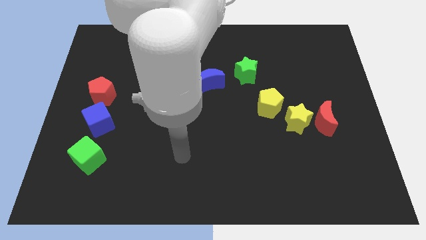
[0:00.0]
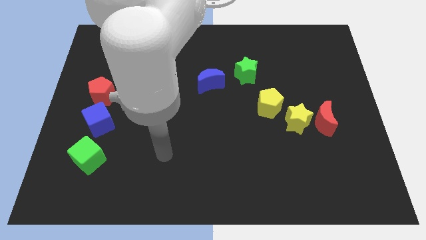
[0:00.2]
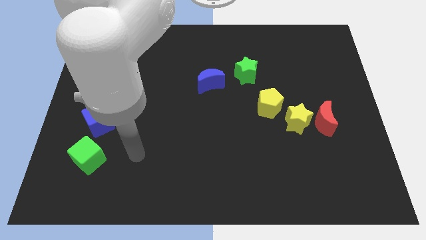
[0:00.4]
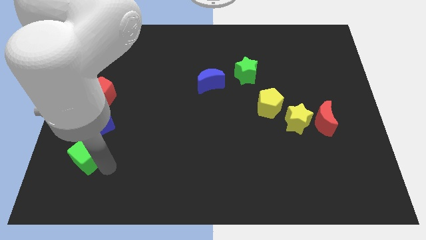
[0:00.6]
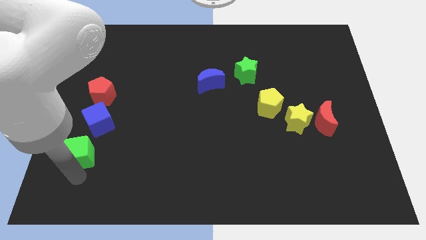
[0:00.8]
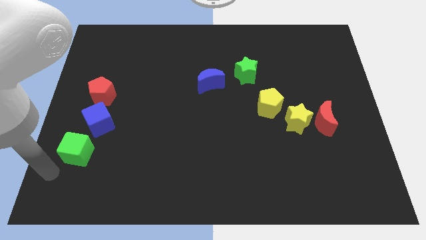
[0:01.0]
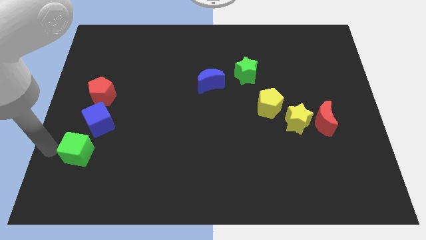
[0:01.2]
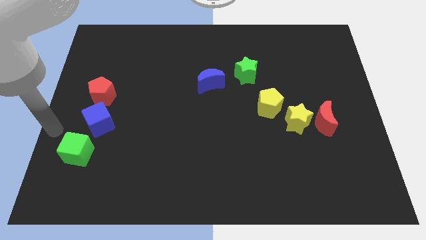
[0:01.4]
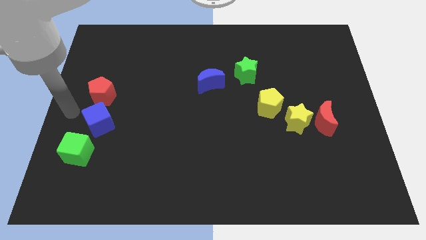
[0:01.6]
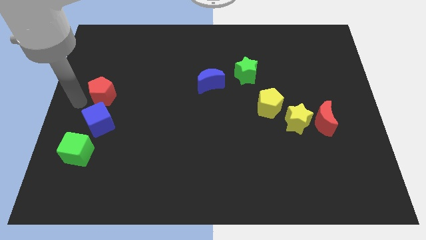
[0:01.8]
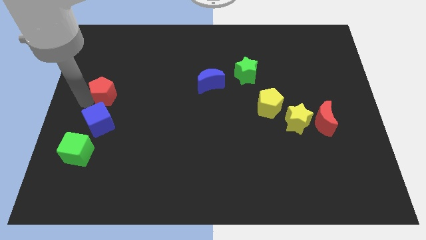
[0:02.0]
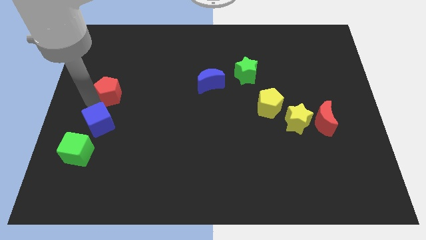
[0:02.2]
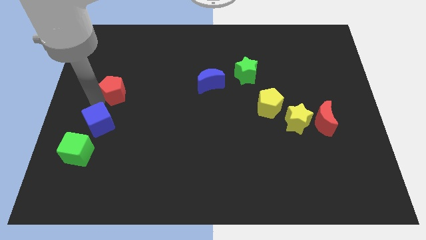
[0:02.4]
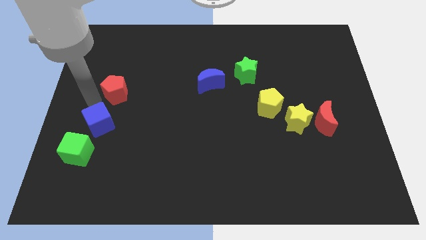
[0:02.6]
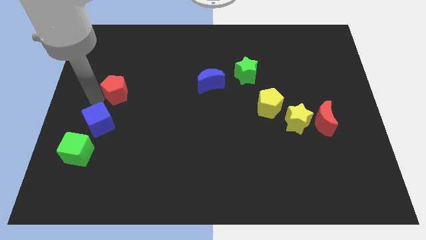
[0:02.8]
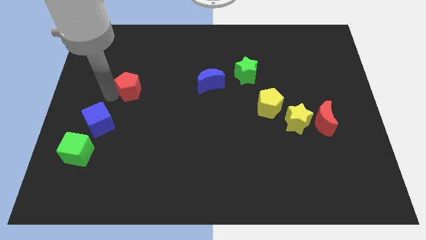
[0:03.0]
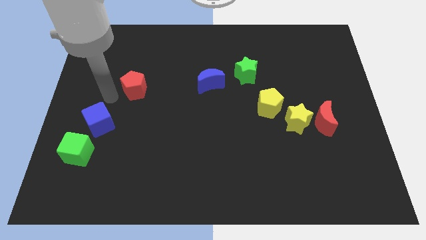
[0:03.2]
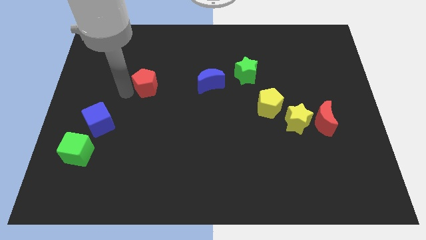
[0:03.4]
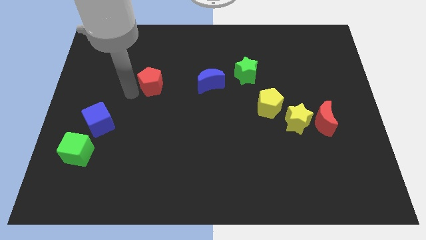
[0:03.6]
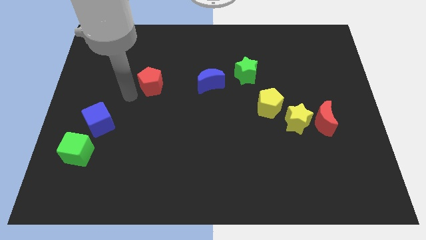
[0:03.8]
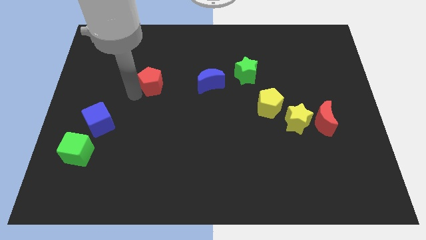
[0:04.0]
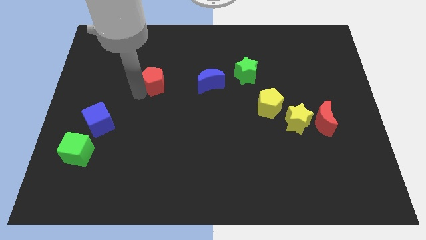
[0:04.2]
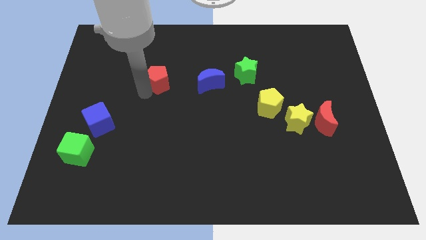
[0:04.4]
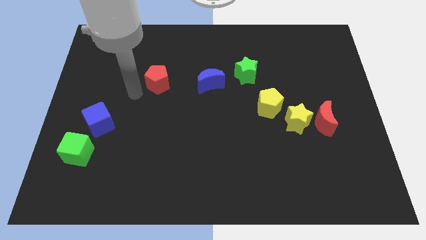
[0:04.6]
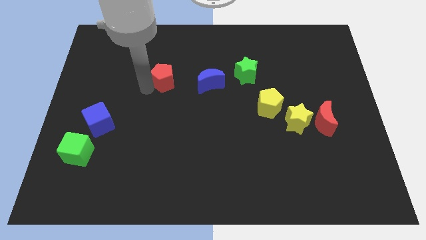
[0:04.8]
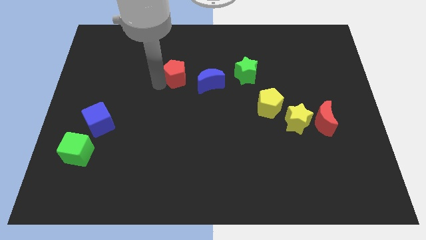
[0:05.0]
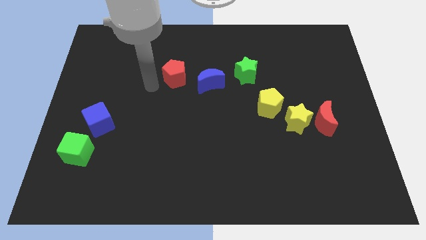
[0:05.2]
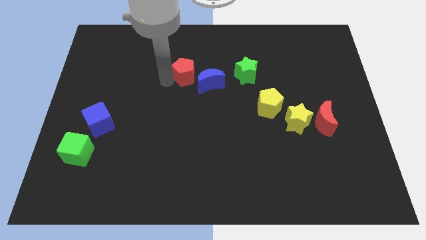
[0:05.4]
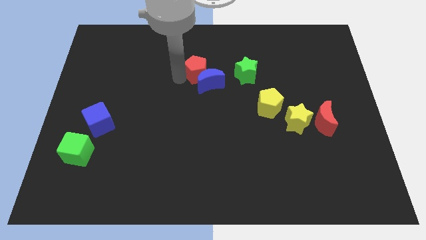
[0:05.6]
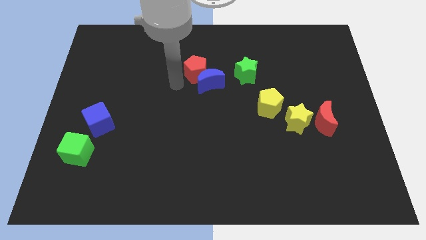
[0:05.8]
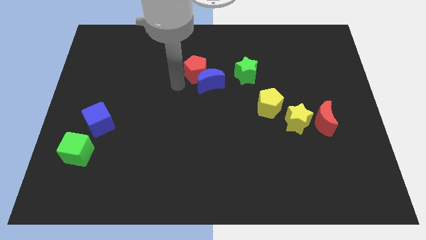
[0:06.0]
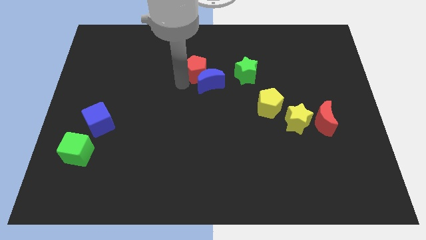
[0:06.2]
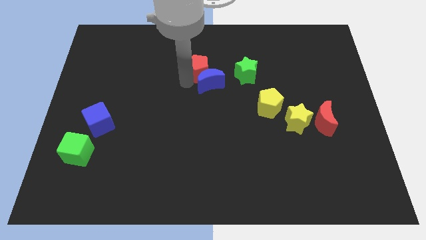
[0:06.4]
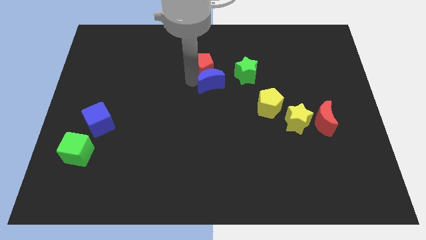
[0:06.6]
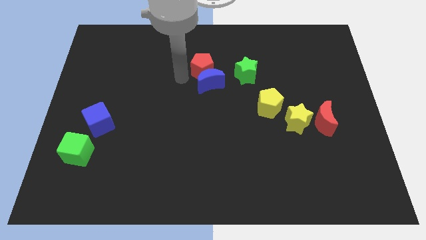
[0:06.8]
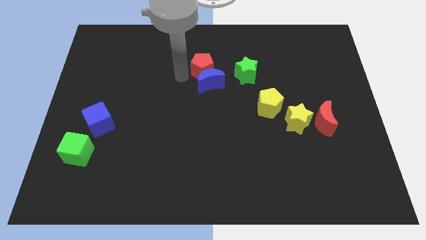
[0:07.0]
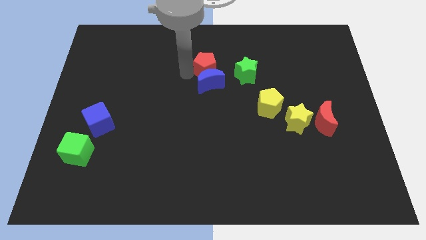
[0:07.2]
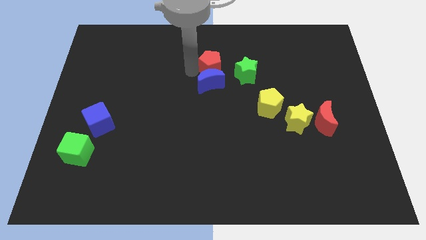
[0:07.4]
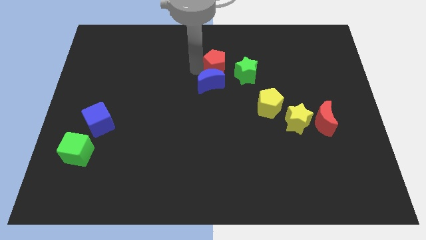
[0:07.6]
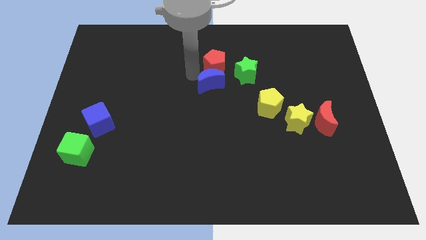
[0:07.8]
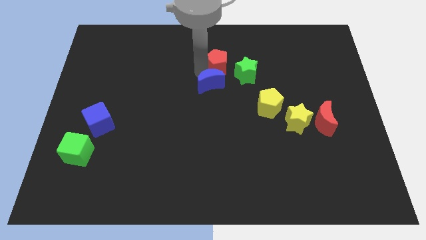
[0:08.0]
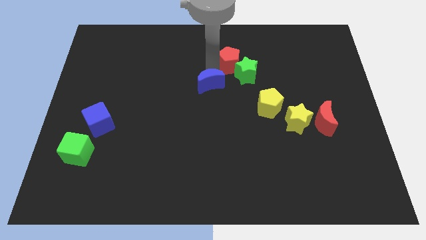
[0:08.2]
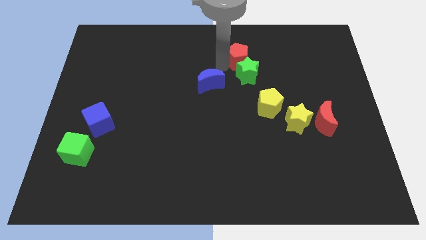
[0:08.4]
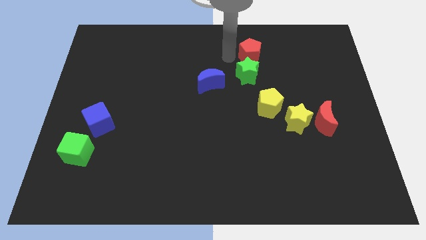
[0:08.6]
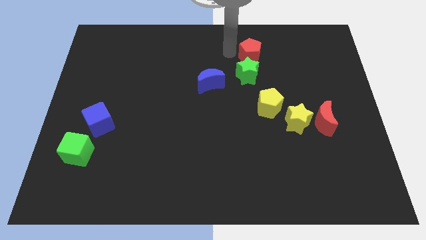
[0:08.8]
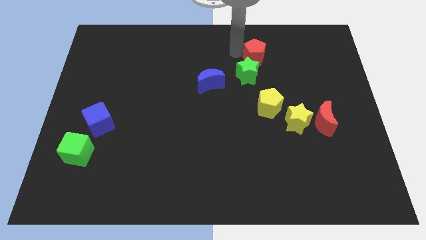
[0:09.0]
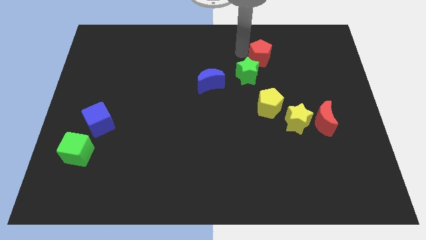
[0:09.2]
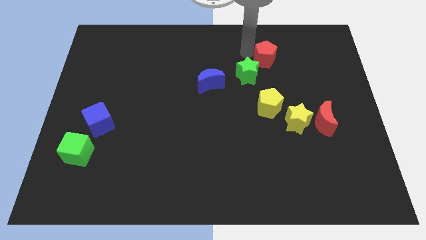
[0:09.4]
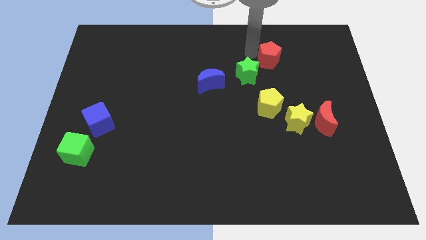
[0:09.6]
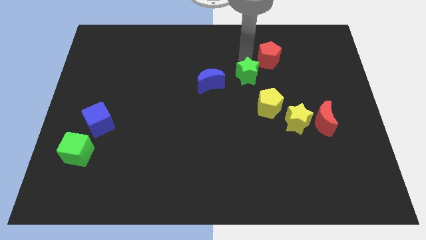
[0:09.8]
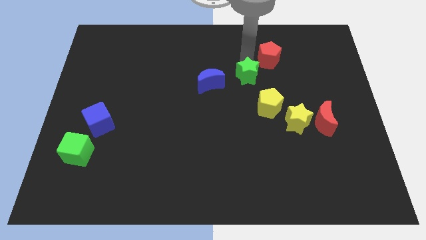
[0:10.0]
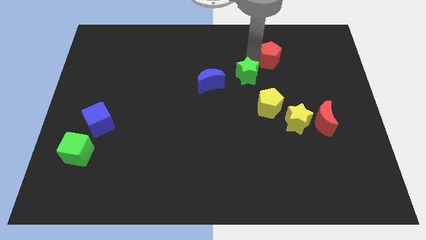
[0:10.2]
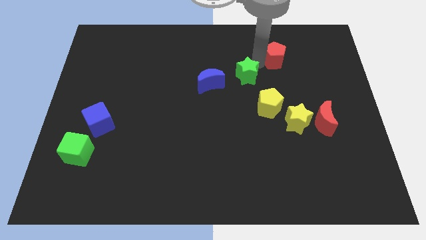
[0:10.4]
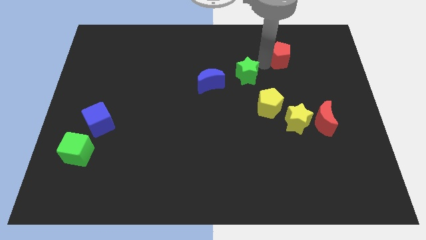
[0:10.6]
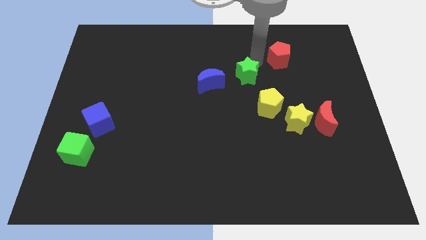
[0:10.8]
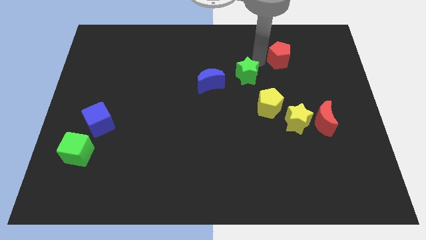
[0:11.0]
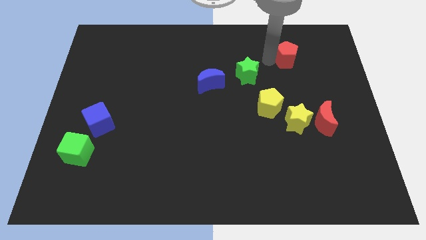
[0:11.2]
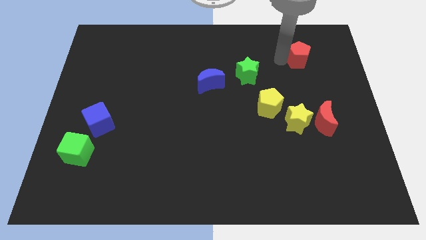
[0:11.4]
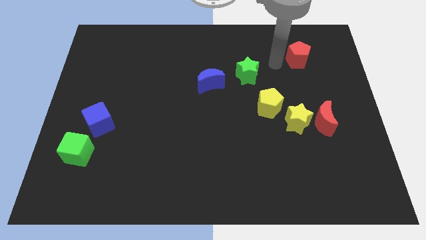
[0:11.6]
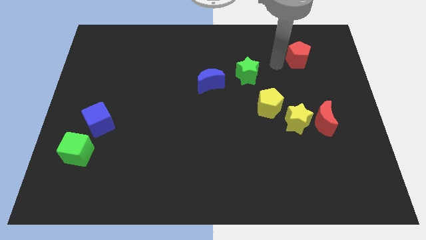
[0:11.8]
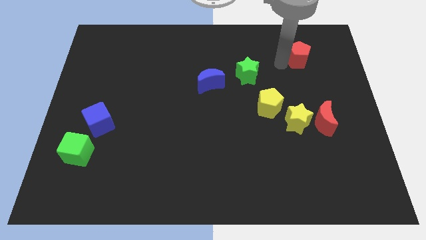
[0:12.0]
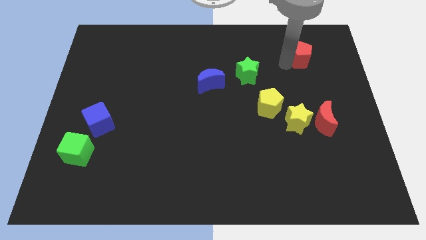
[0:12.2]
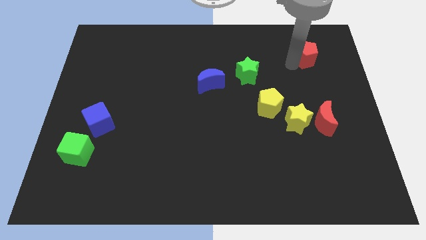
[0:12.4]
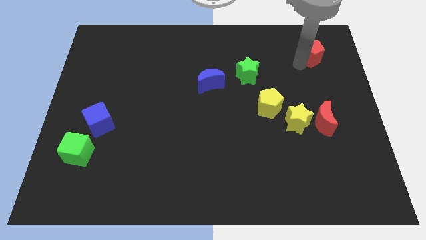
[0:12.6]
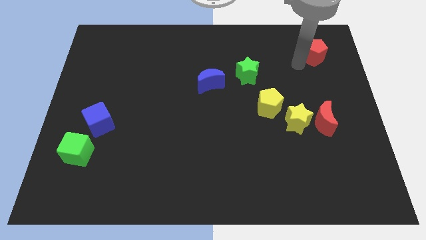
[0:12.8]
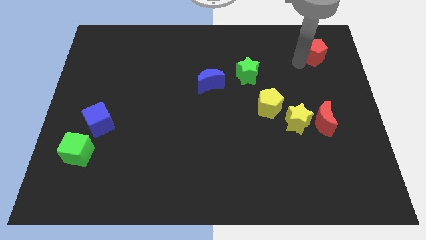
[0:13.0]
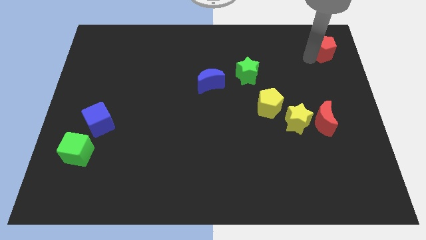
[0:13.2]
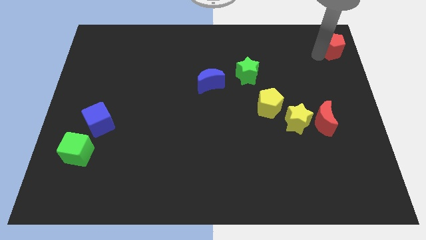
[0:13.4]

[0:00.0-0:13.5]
slide the red pentagon to the top right corner
